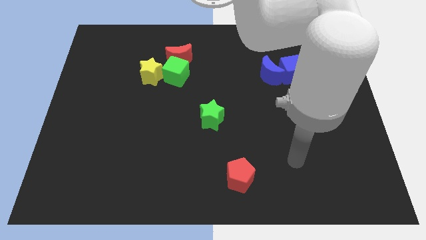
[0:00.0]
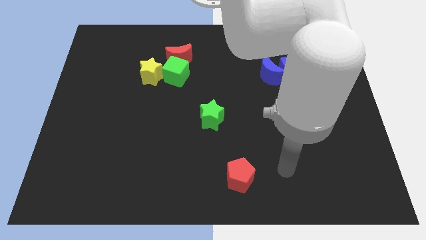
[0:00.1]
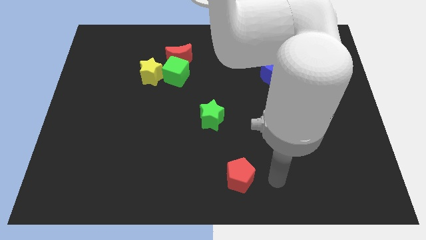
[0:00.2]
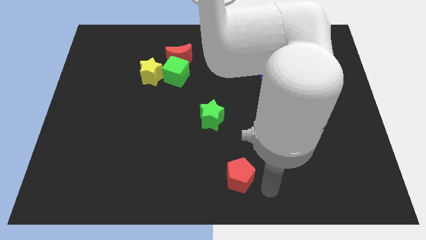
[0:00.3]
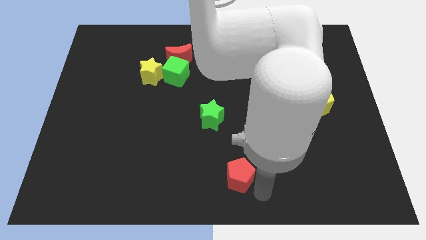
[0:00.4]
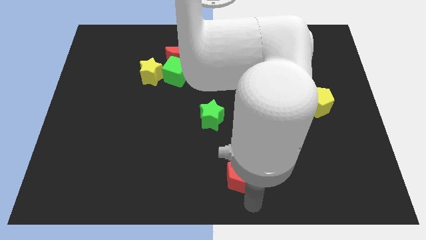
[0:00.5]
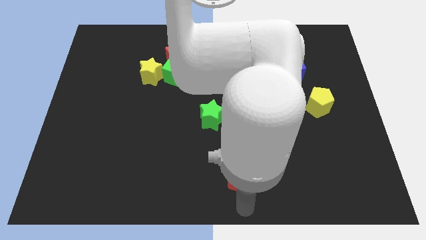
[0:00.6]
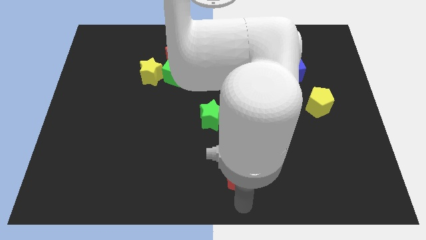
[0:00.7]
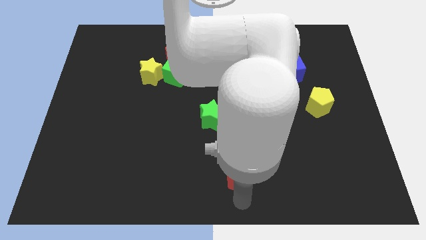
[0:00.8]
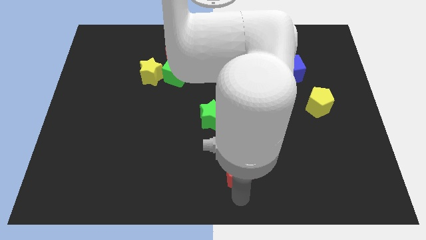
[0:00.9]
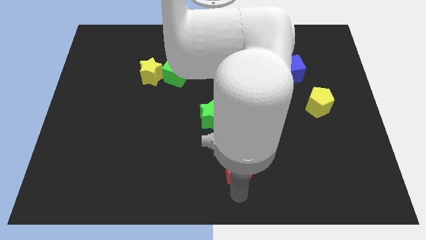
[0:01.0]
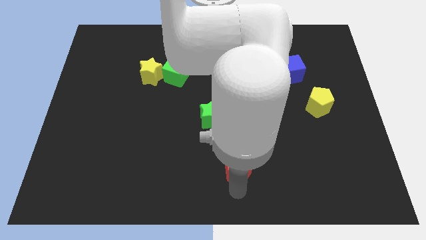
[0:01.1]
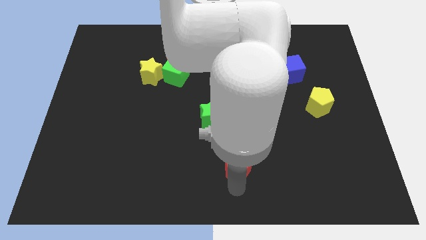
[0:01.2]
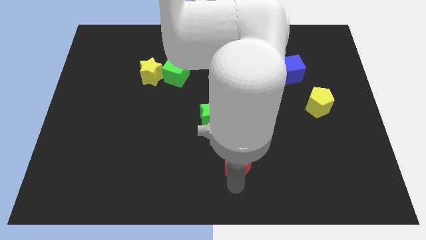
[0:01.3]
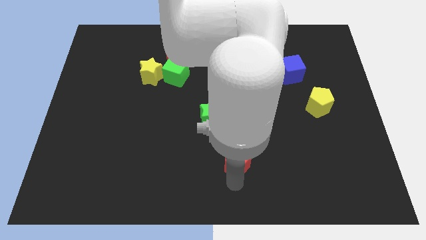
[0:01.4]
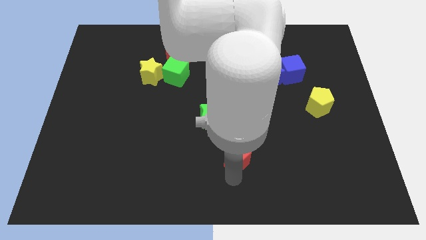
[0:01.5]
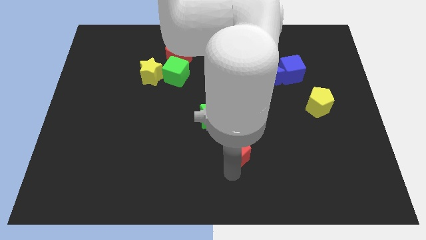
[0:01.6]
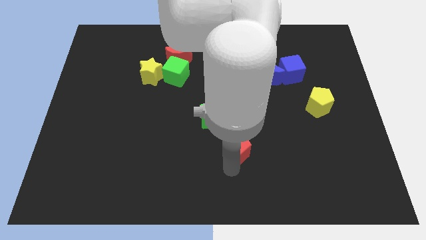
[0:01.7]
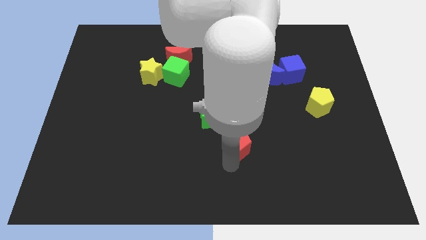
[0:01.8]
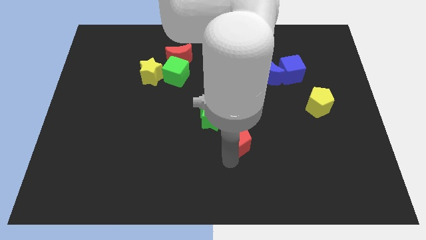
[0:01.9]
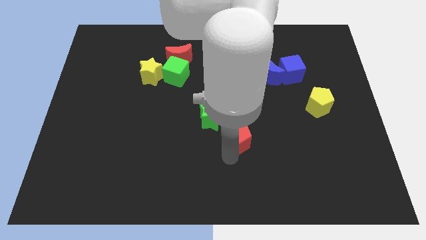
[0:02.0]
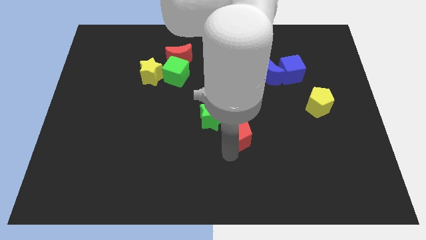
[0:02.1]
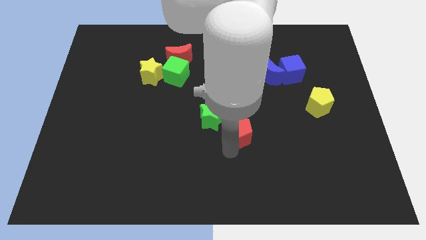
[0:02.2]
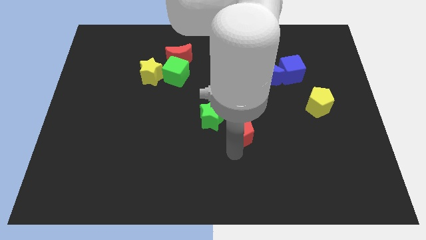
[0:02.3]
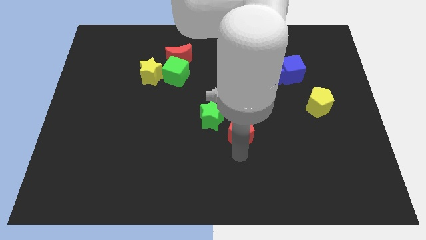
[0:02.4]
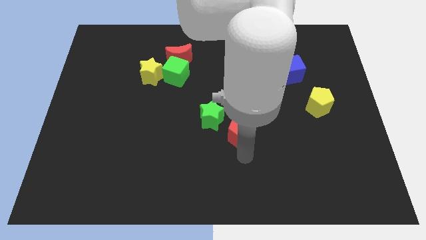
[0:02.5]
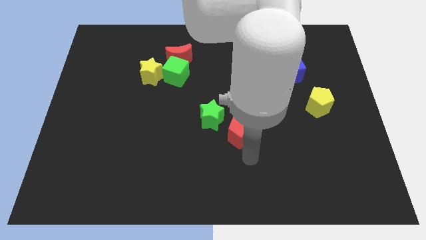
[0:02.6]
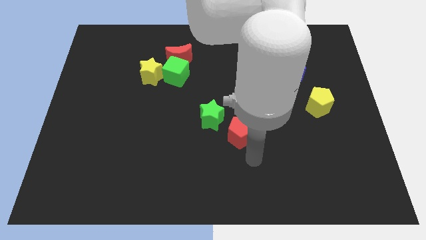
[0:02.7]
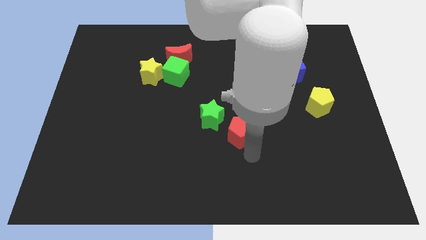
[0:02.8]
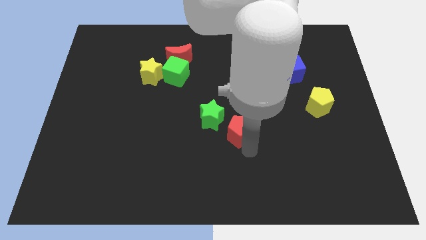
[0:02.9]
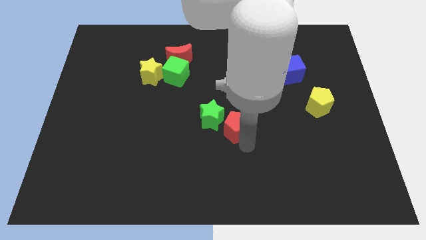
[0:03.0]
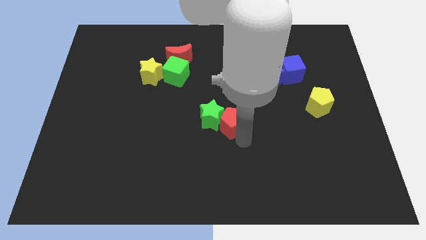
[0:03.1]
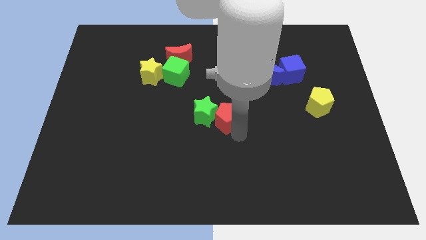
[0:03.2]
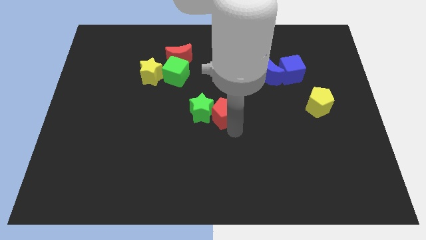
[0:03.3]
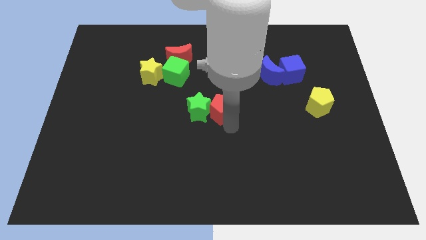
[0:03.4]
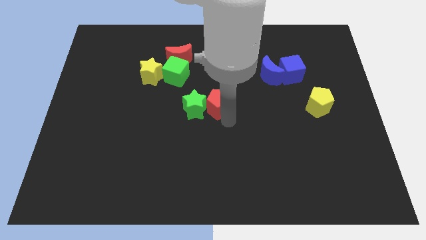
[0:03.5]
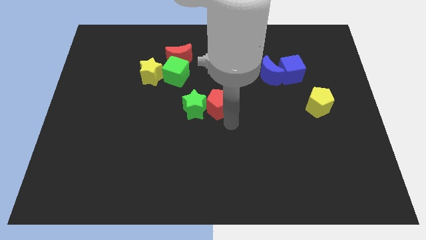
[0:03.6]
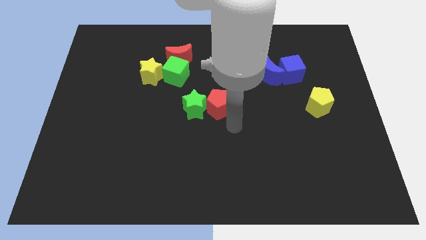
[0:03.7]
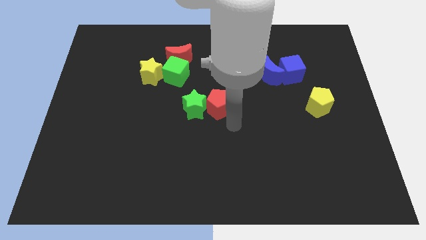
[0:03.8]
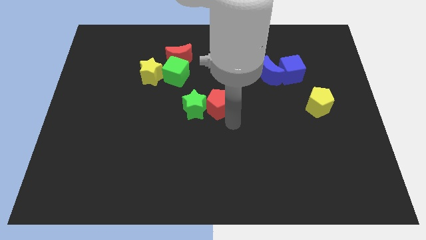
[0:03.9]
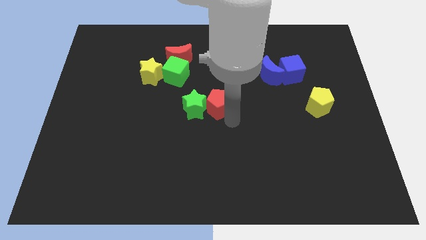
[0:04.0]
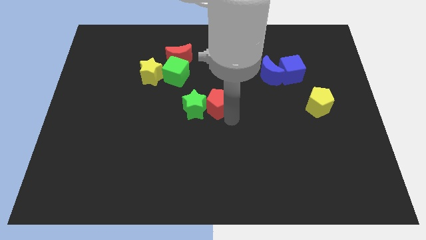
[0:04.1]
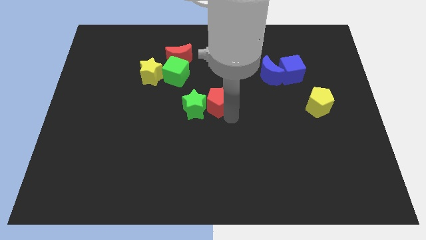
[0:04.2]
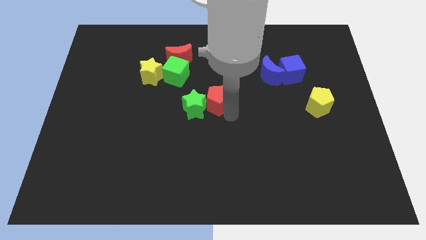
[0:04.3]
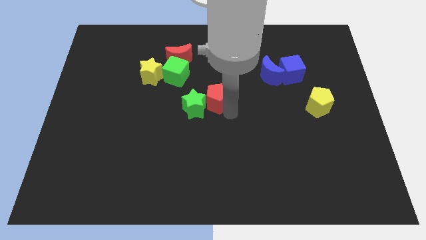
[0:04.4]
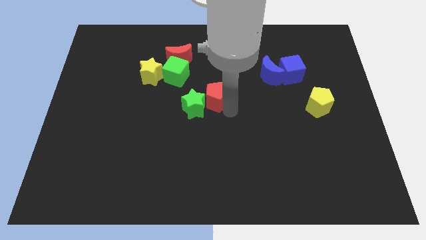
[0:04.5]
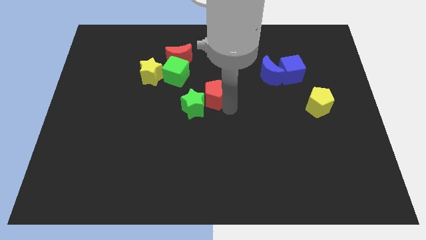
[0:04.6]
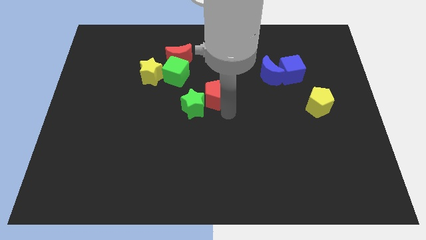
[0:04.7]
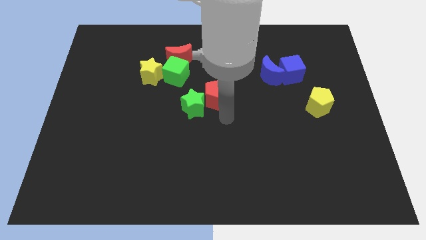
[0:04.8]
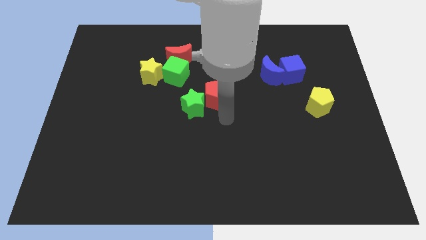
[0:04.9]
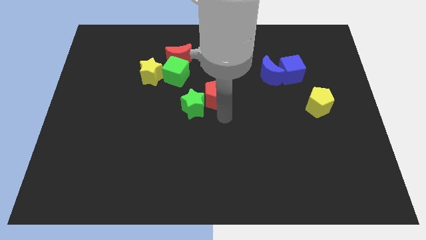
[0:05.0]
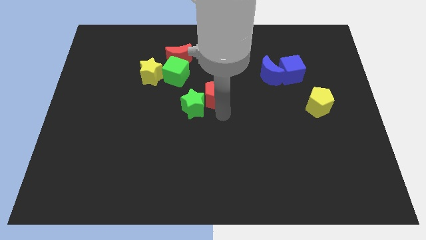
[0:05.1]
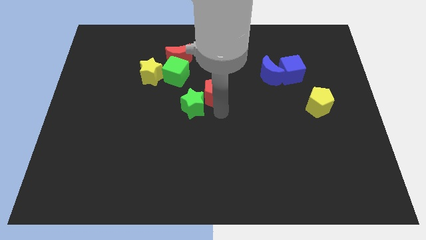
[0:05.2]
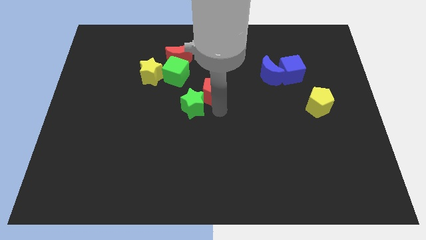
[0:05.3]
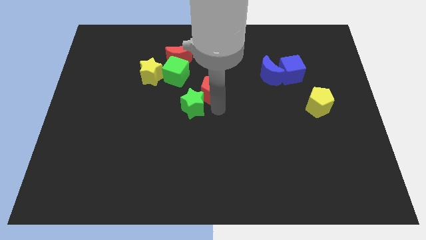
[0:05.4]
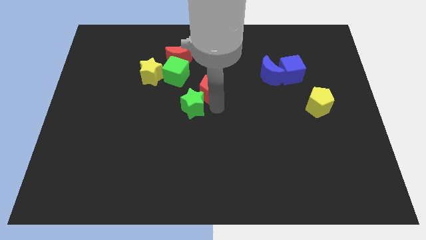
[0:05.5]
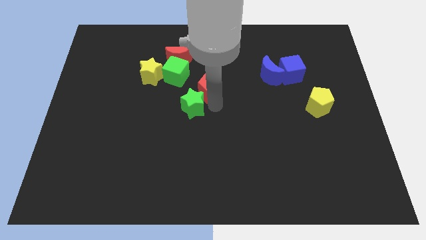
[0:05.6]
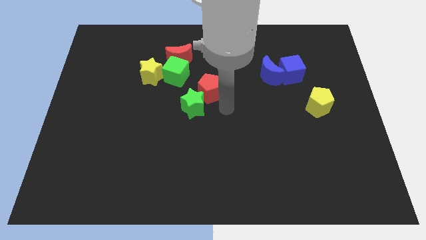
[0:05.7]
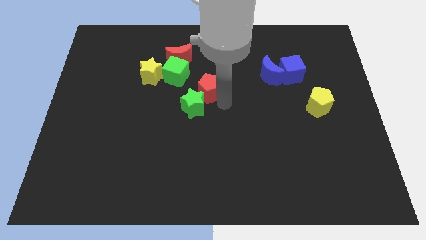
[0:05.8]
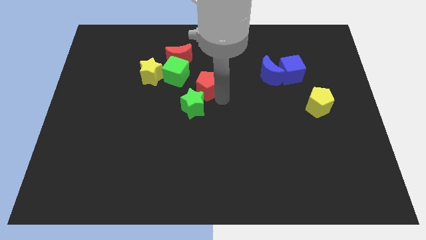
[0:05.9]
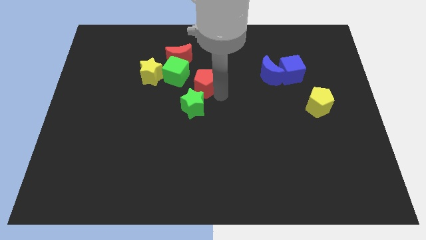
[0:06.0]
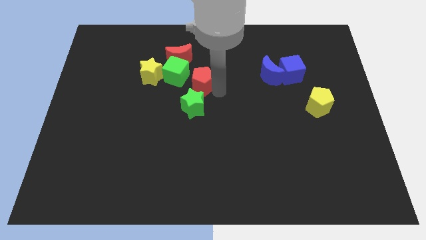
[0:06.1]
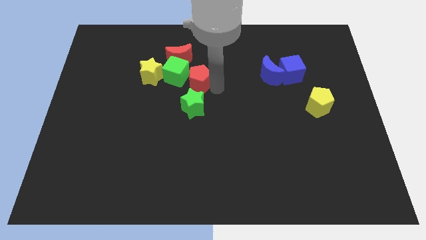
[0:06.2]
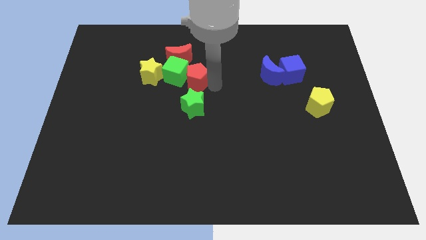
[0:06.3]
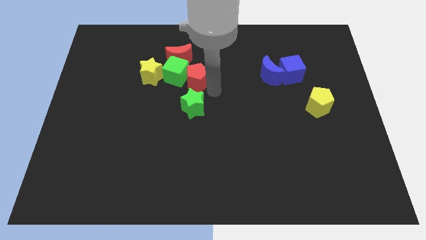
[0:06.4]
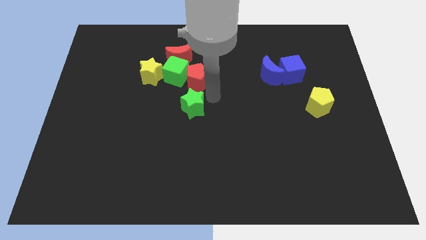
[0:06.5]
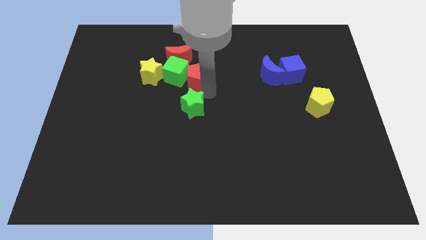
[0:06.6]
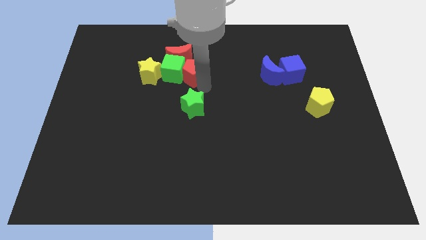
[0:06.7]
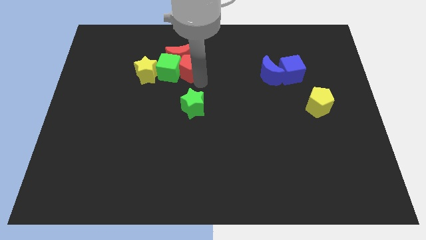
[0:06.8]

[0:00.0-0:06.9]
slide the red pentagon towards the red moon

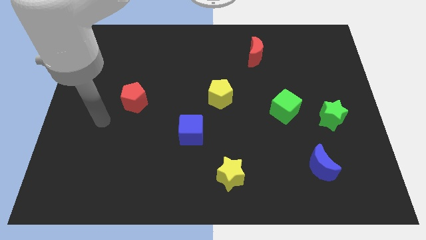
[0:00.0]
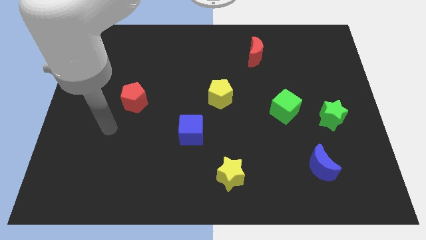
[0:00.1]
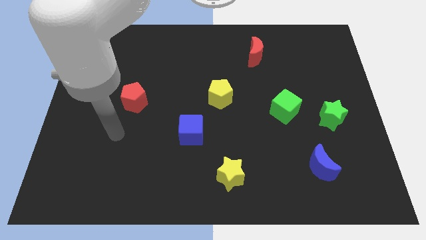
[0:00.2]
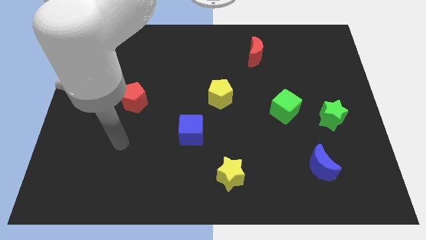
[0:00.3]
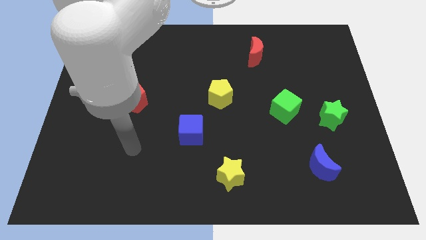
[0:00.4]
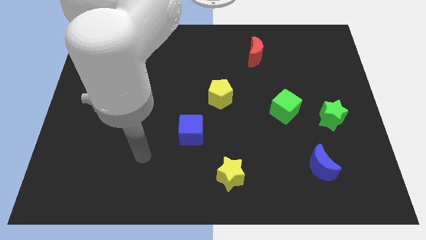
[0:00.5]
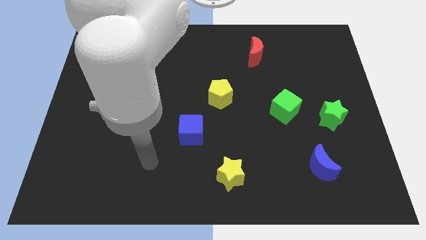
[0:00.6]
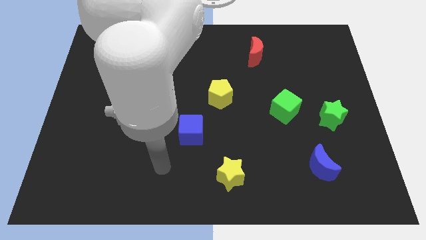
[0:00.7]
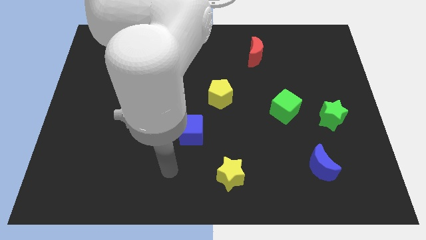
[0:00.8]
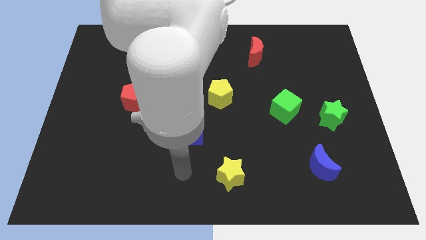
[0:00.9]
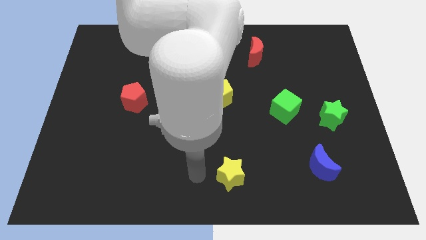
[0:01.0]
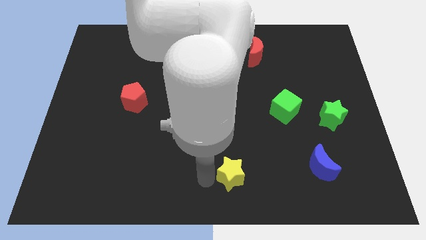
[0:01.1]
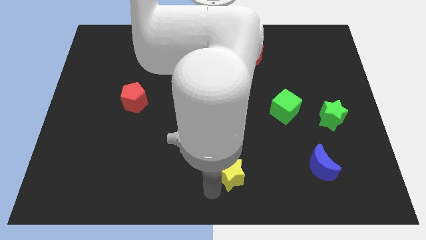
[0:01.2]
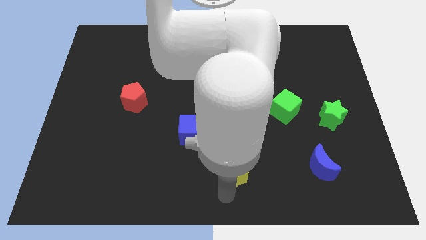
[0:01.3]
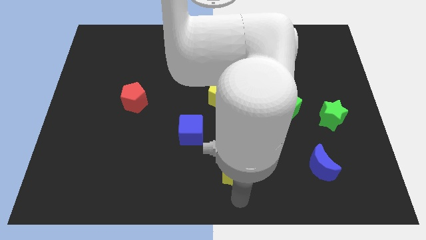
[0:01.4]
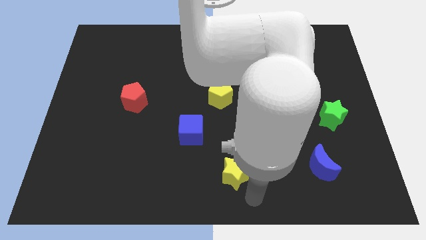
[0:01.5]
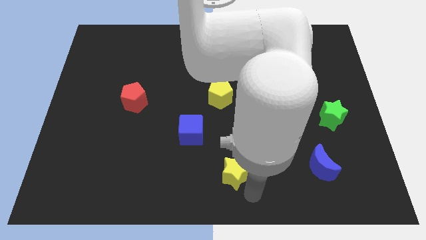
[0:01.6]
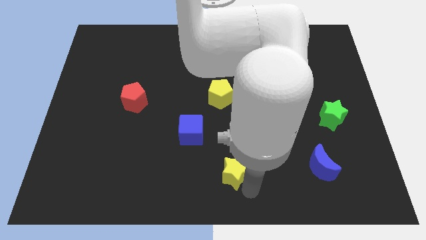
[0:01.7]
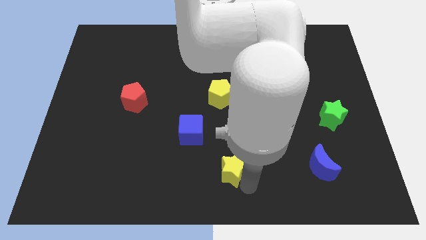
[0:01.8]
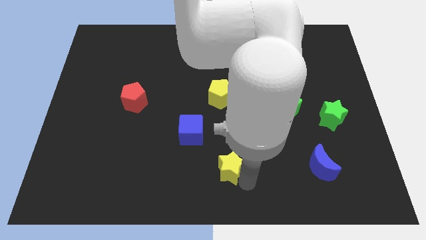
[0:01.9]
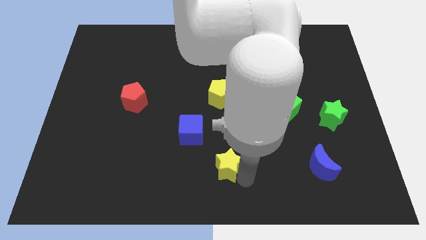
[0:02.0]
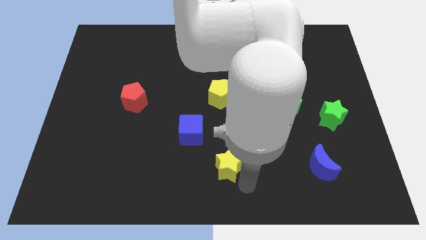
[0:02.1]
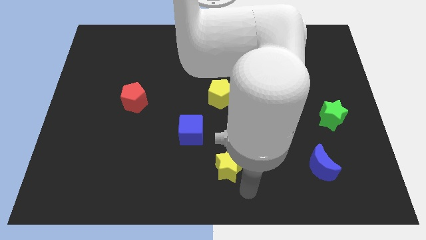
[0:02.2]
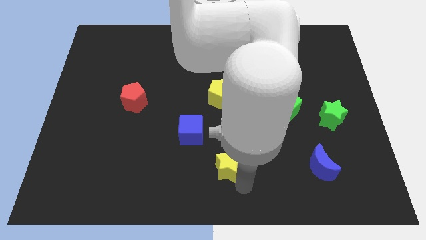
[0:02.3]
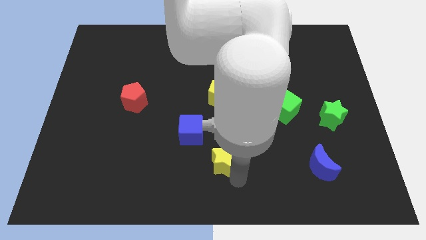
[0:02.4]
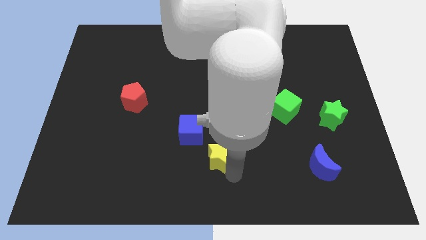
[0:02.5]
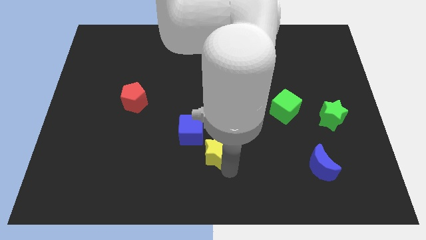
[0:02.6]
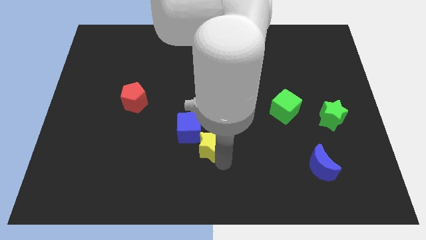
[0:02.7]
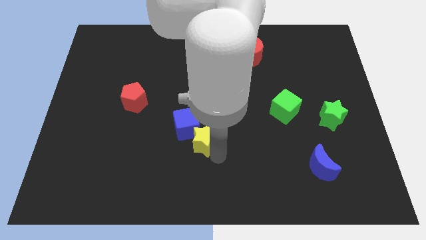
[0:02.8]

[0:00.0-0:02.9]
move the yellow star towards the blue cube
